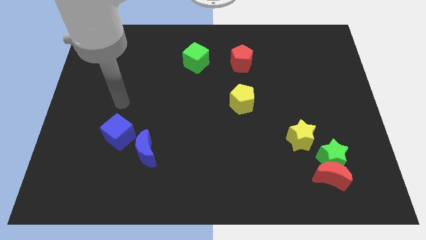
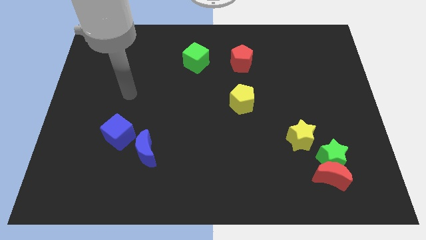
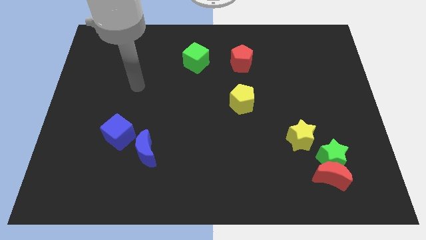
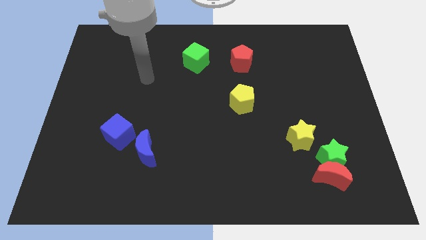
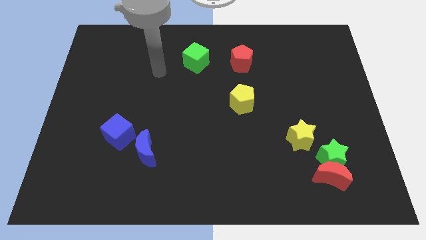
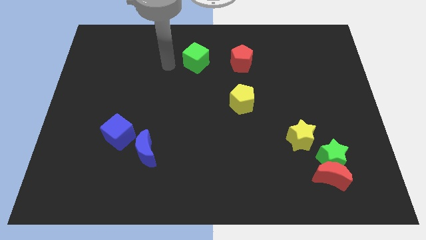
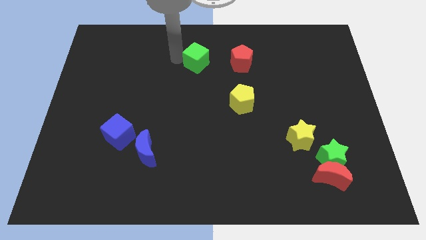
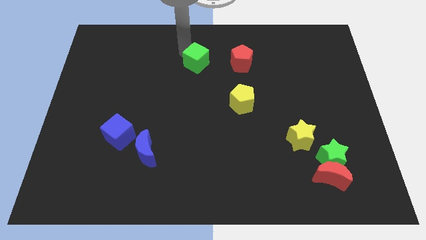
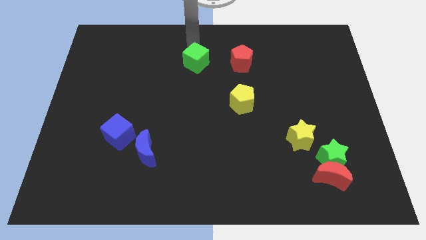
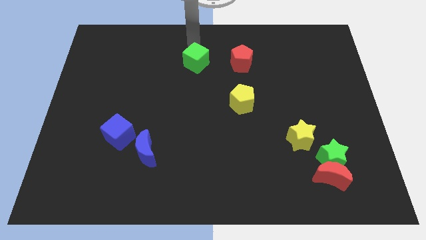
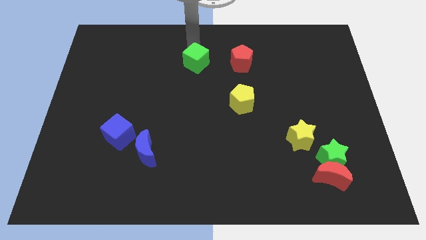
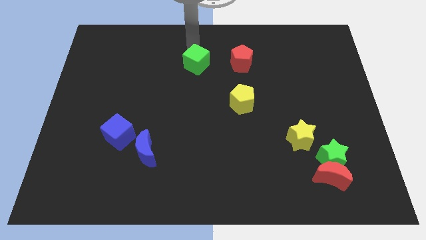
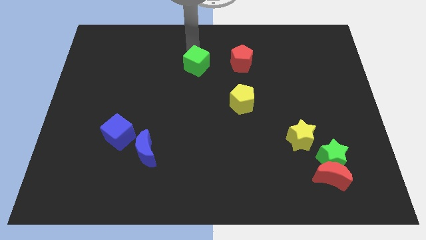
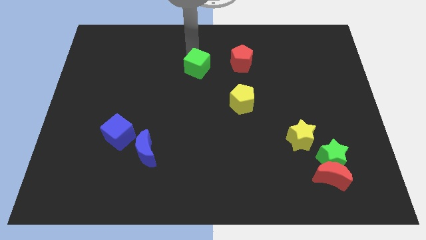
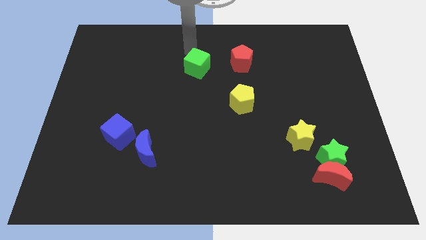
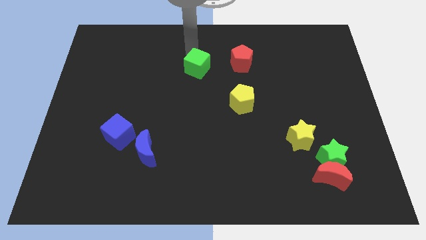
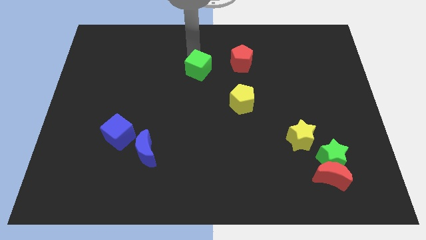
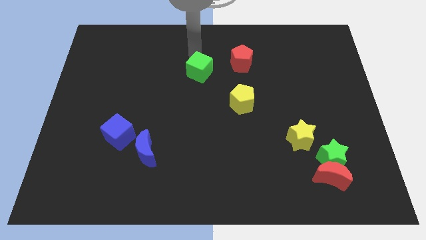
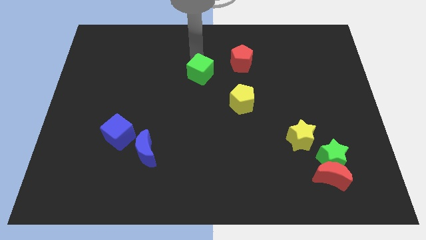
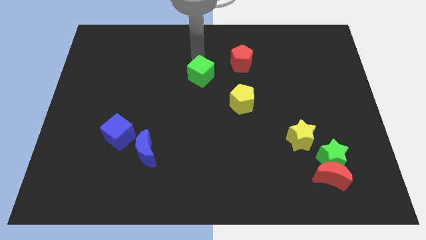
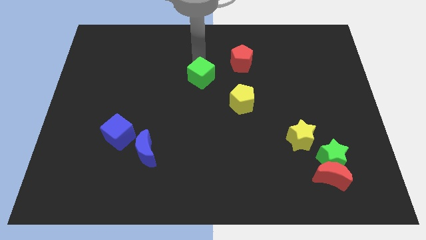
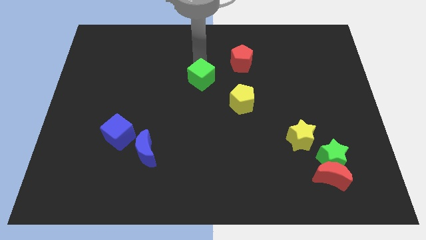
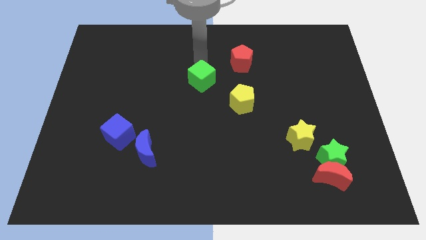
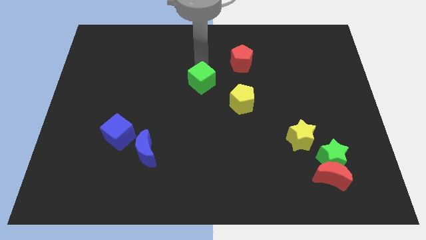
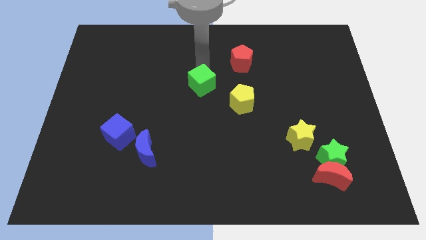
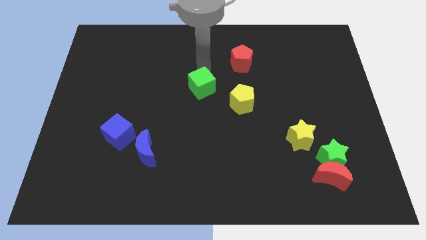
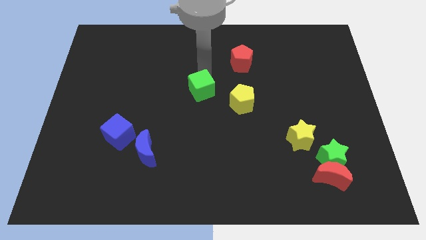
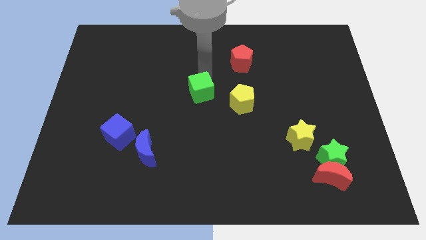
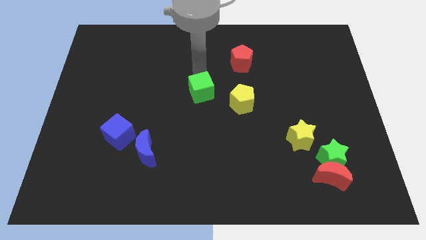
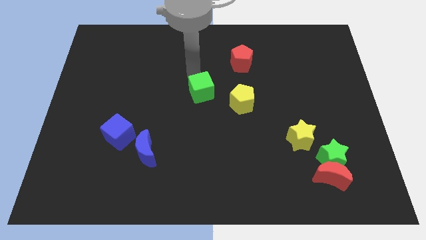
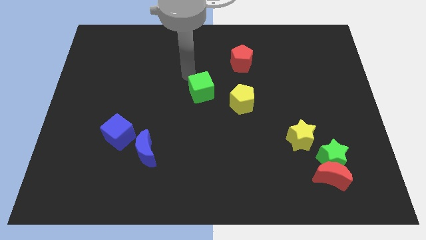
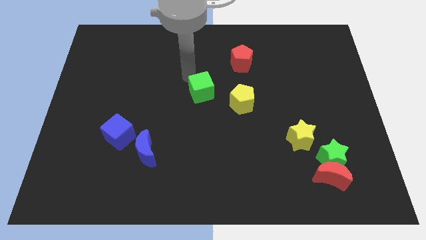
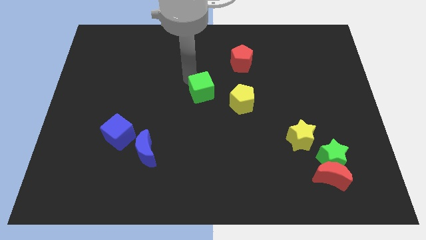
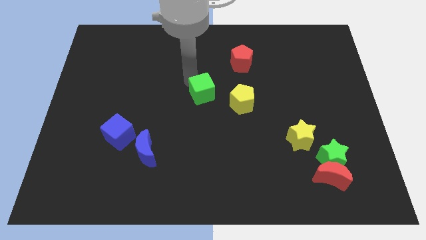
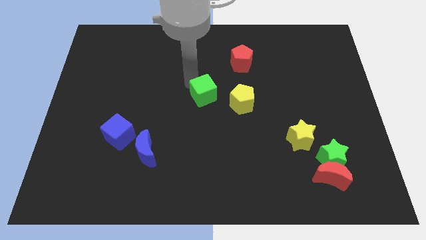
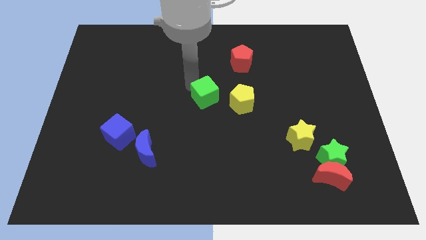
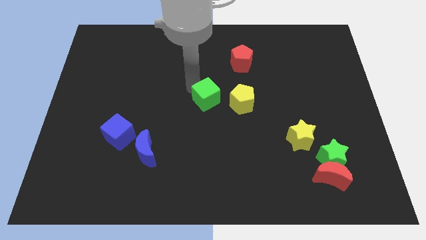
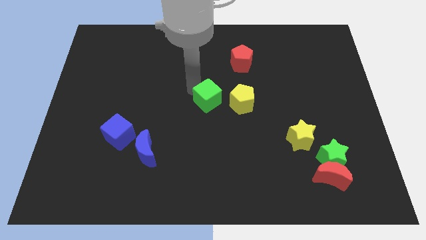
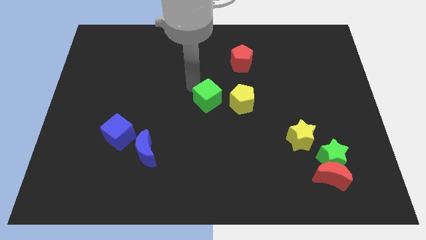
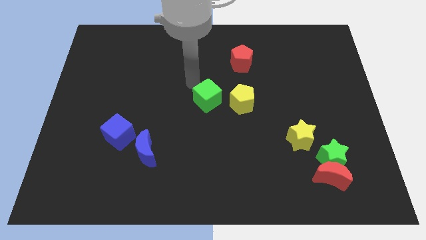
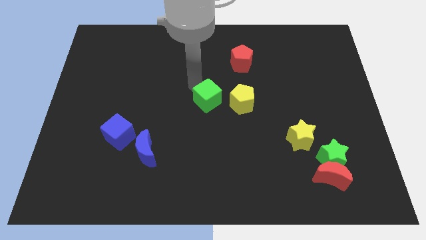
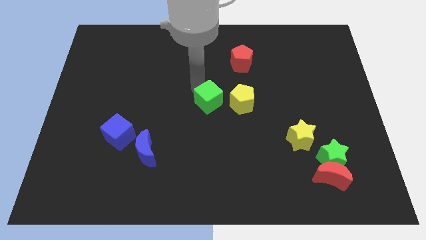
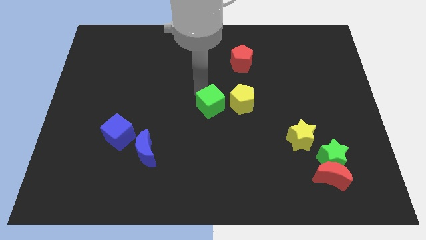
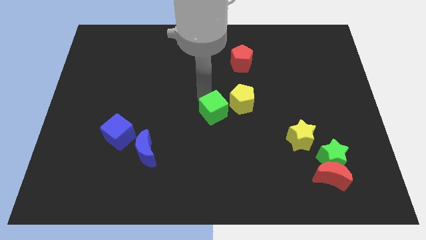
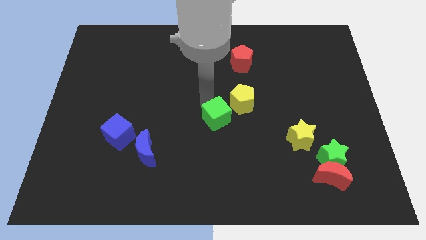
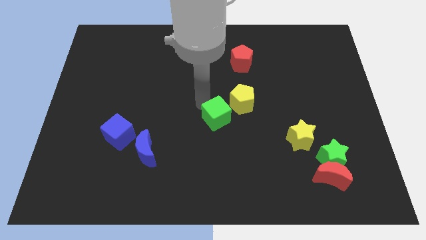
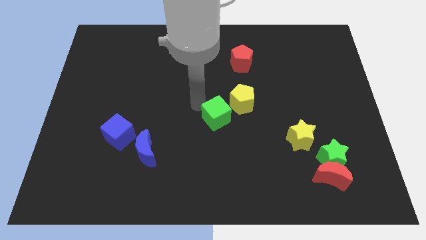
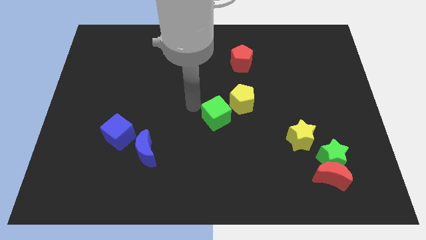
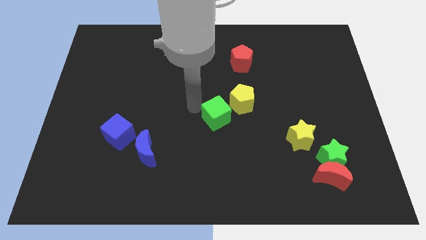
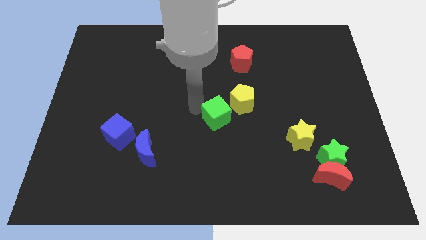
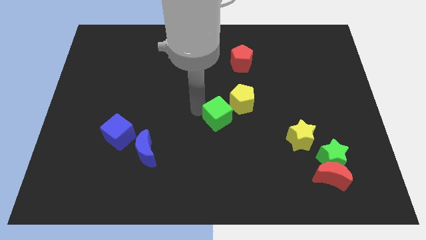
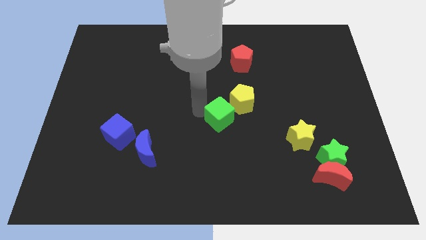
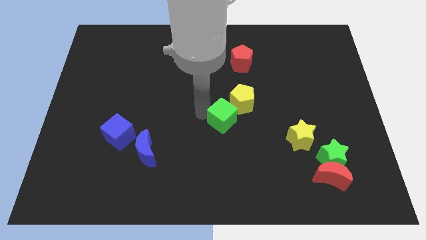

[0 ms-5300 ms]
push the green cube to the bottom of the yellow pentagon

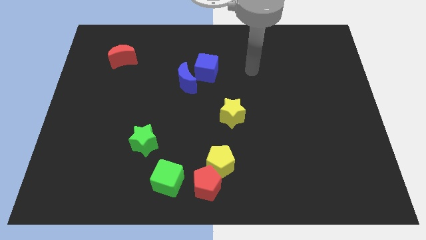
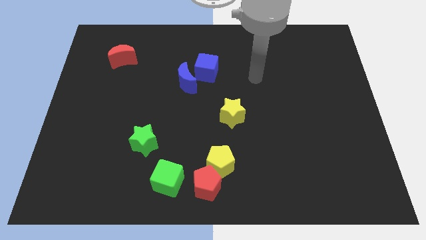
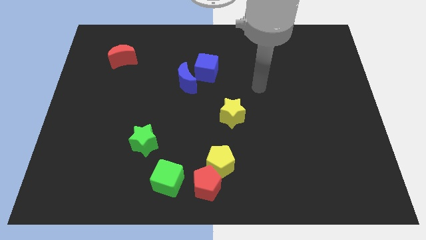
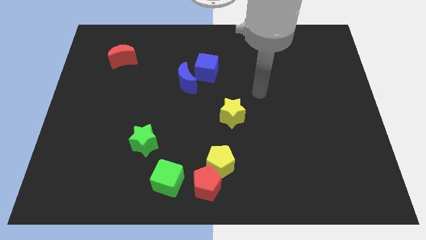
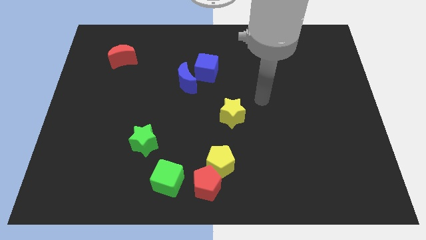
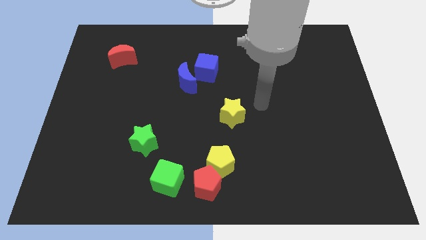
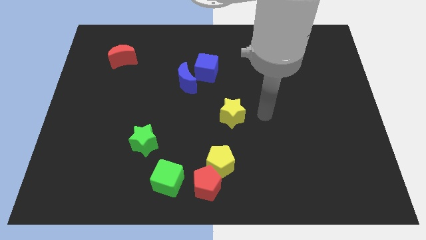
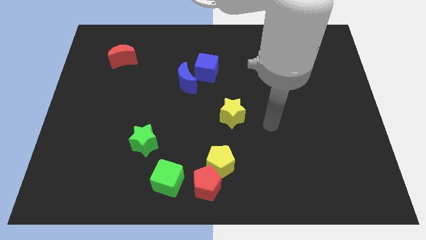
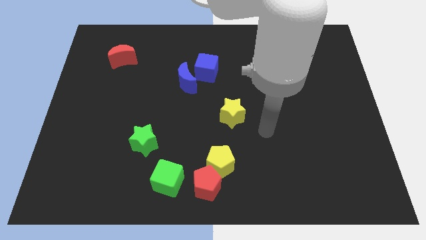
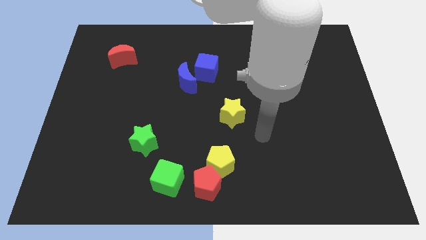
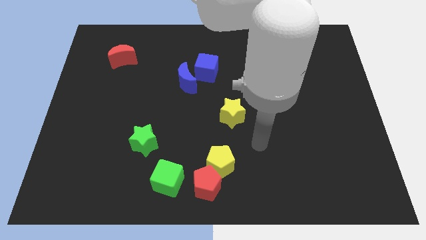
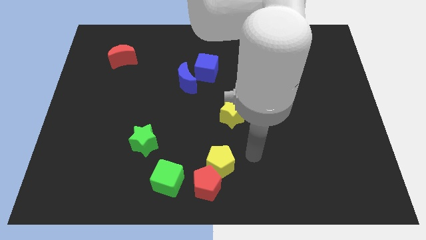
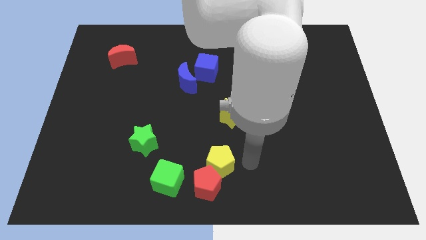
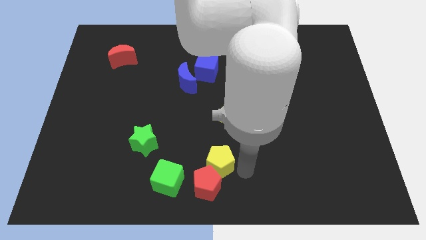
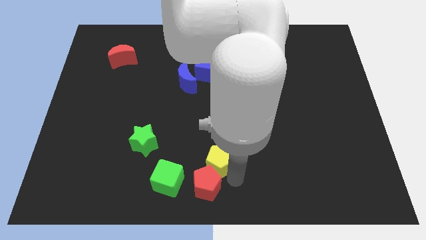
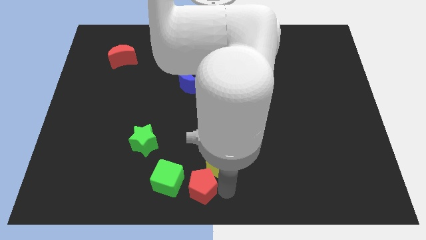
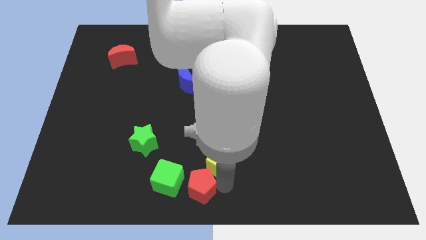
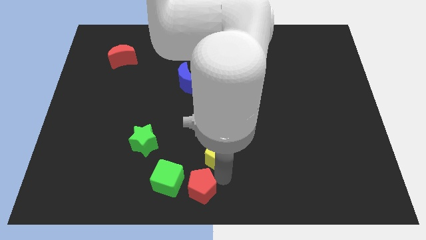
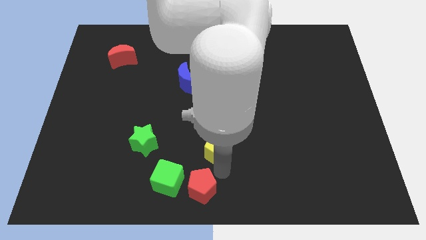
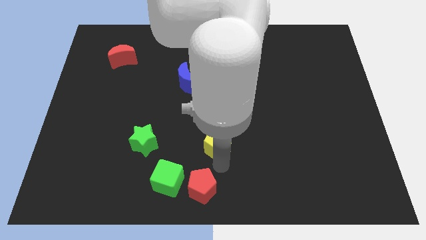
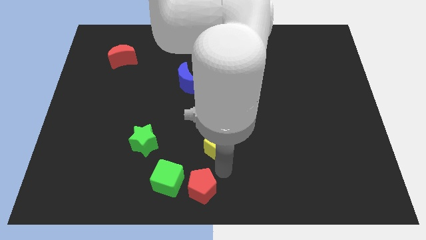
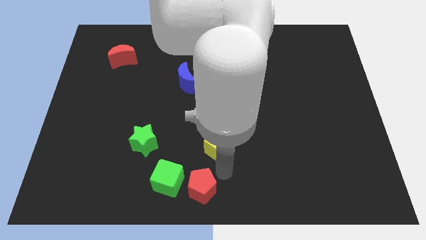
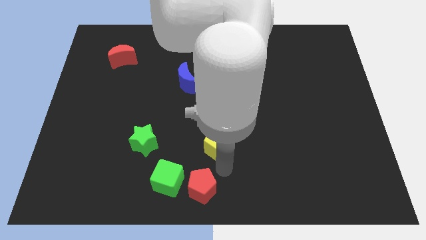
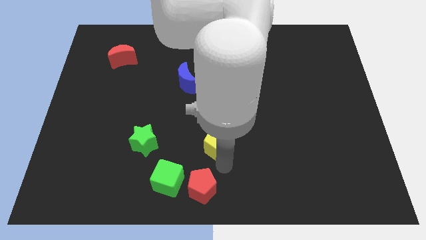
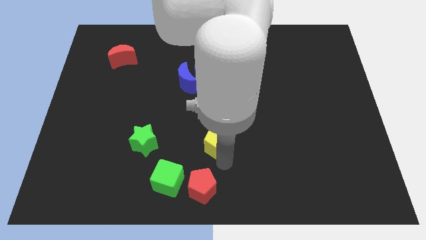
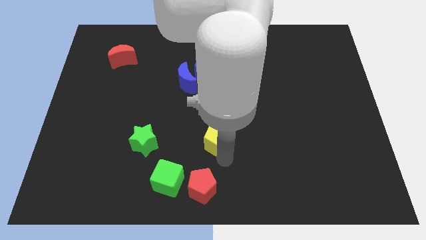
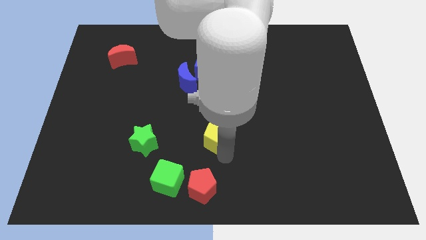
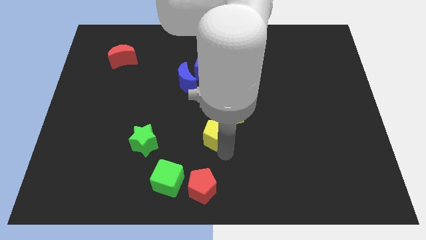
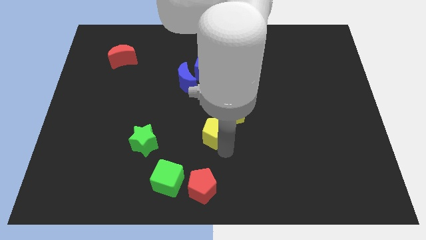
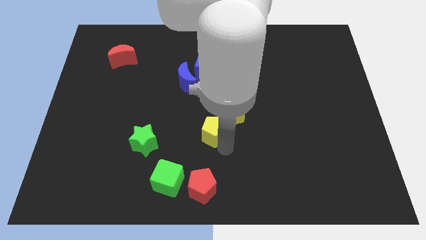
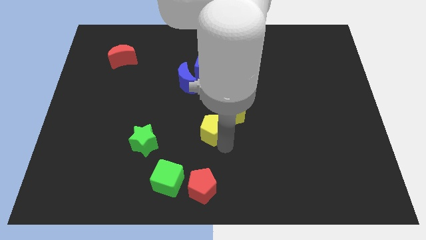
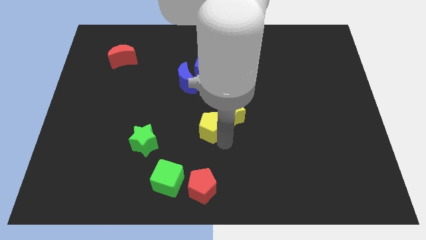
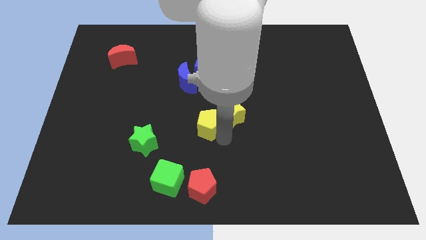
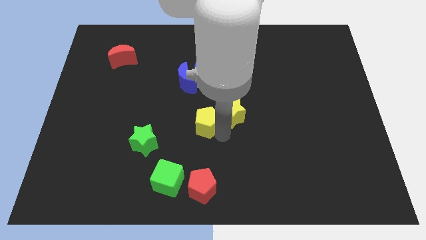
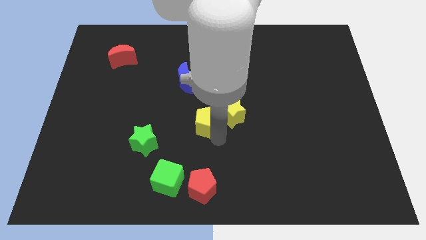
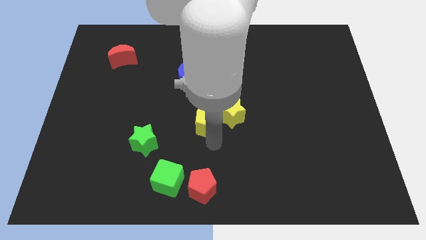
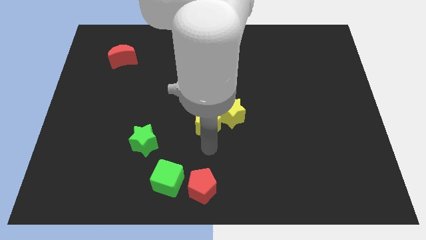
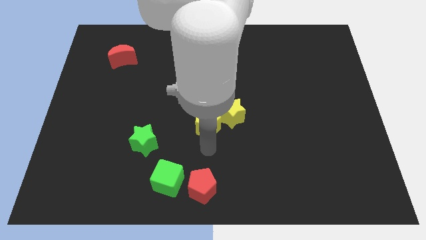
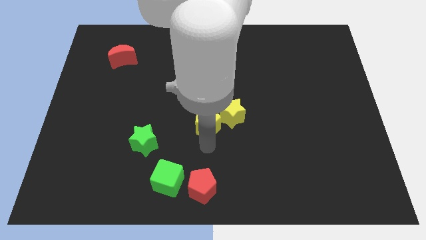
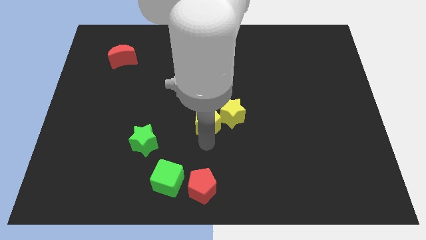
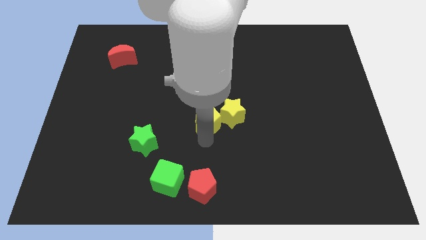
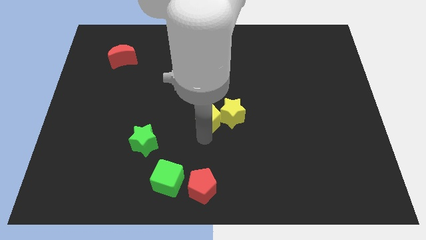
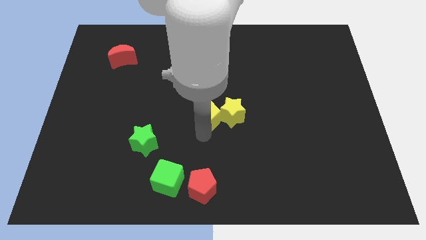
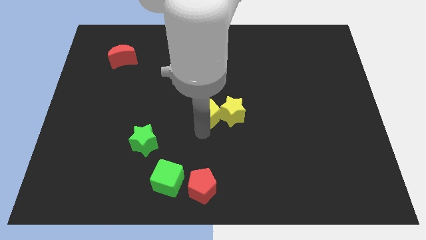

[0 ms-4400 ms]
slide the yellow pentagon to the bottom right side of the blue moon
